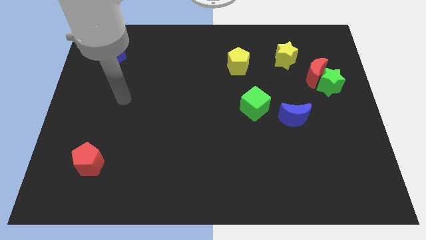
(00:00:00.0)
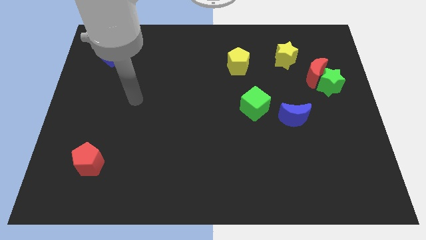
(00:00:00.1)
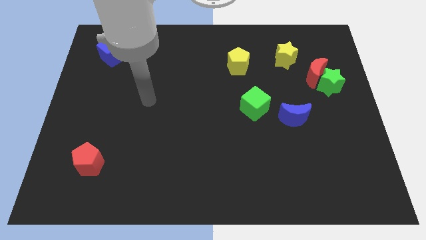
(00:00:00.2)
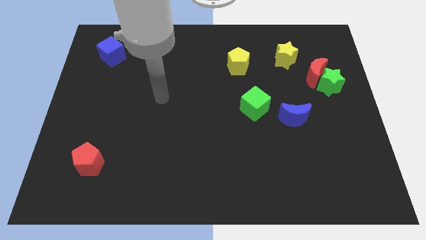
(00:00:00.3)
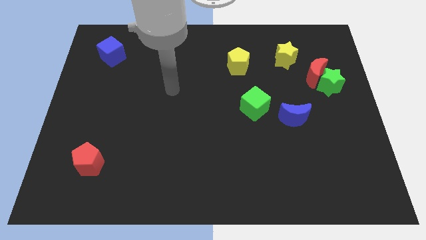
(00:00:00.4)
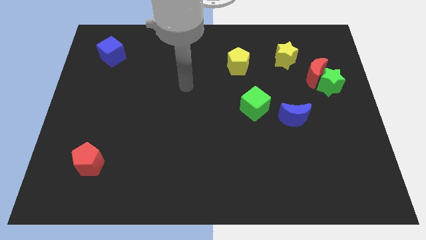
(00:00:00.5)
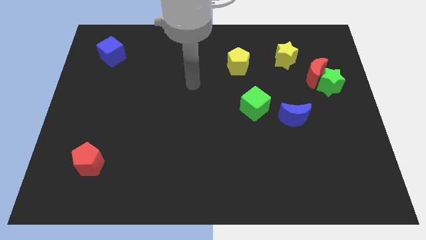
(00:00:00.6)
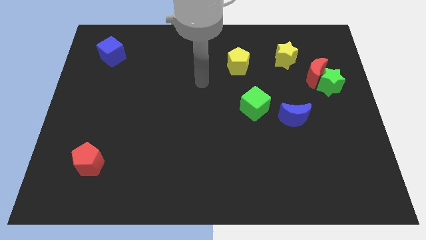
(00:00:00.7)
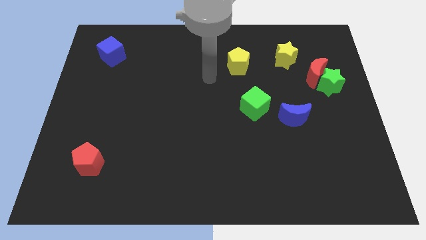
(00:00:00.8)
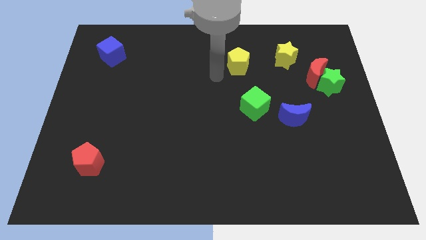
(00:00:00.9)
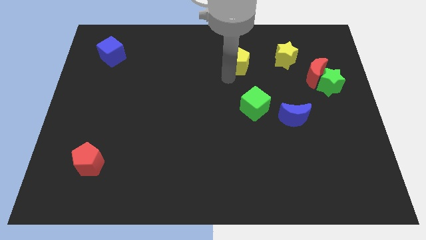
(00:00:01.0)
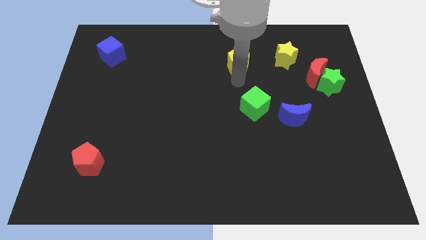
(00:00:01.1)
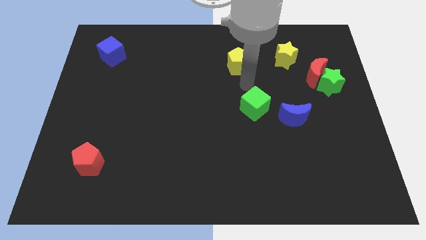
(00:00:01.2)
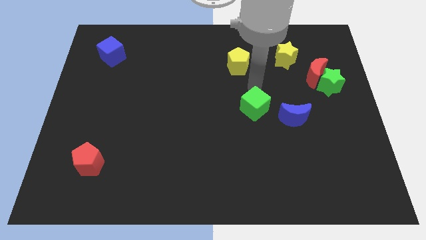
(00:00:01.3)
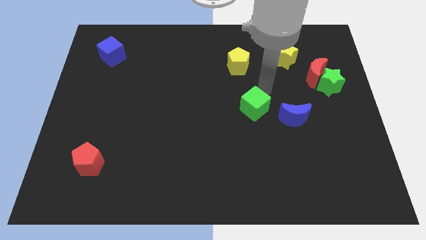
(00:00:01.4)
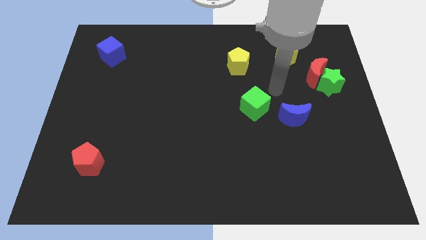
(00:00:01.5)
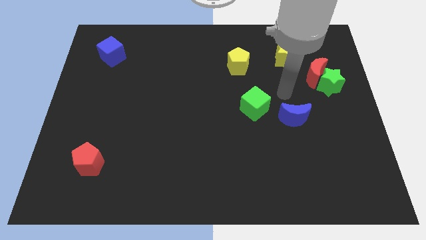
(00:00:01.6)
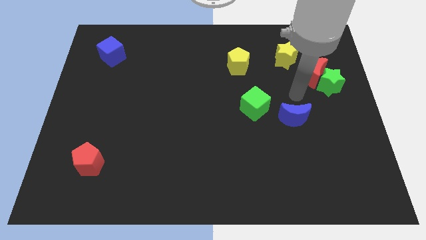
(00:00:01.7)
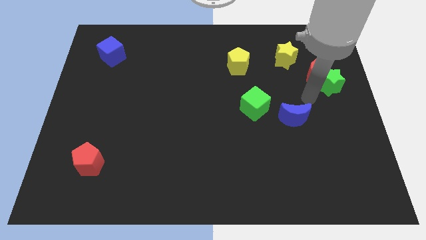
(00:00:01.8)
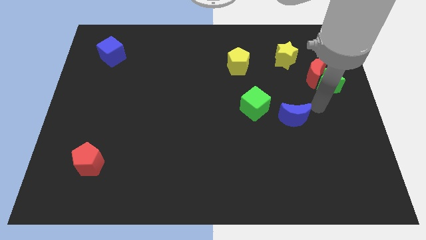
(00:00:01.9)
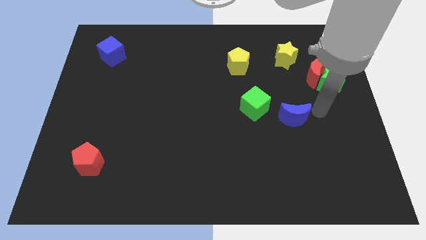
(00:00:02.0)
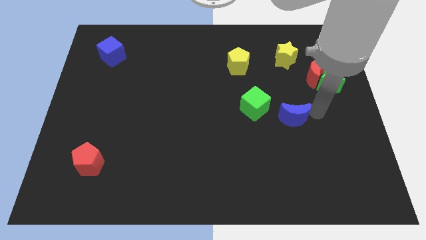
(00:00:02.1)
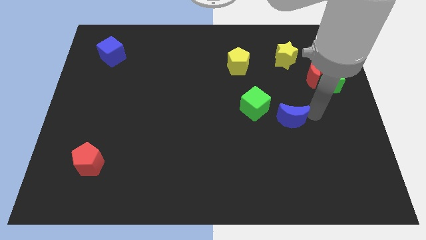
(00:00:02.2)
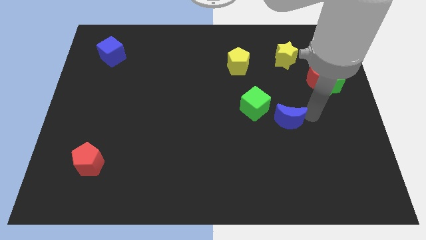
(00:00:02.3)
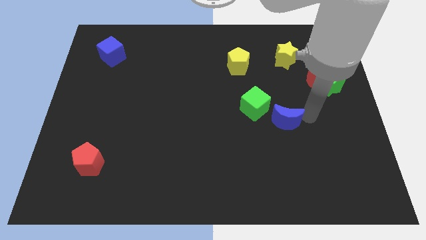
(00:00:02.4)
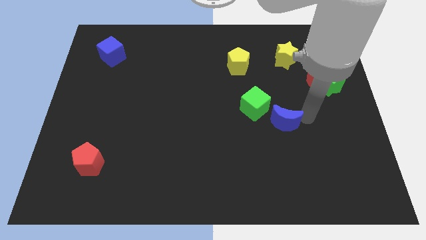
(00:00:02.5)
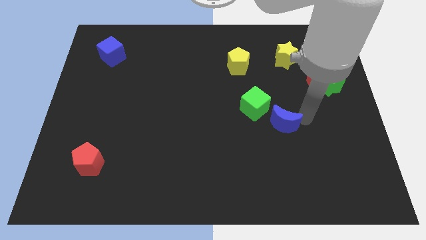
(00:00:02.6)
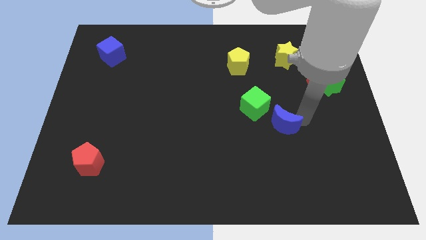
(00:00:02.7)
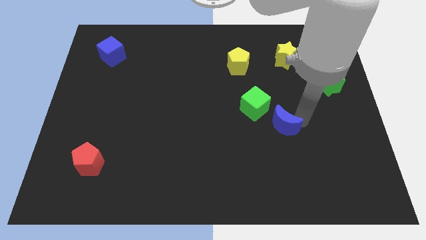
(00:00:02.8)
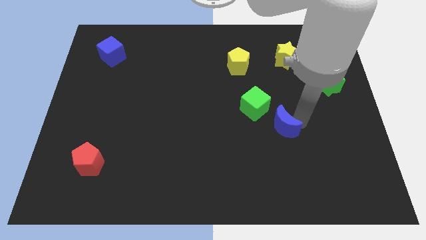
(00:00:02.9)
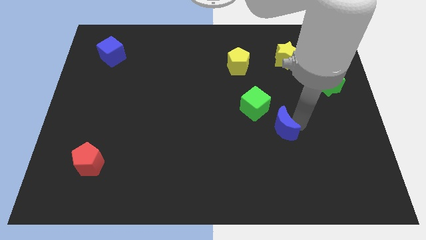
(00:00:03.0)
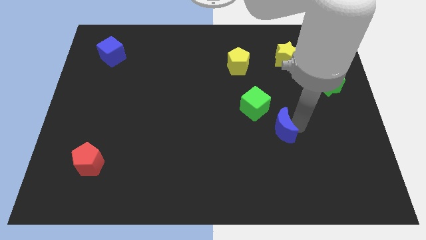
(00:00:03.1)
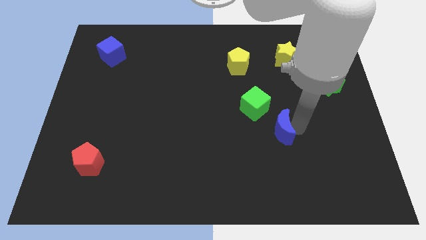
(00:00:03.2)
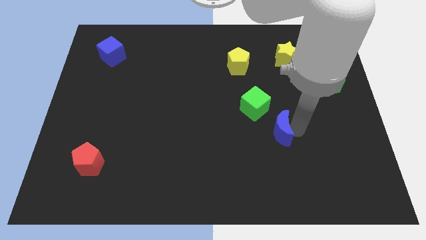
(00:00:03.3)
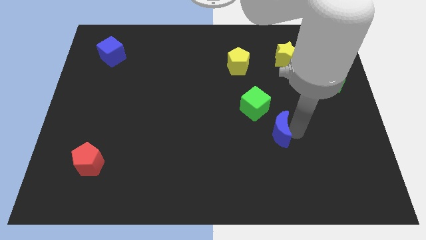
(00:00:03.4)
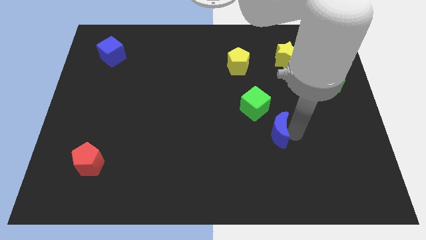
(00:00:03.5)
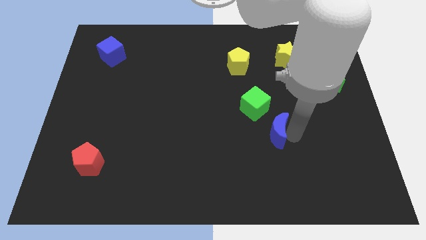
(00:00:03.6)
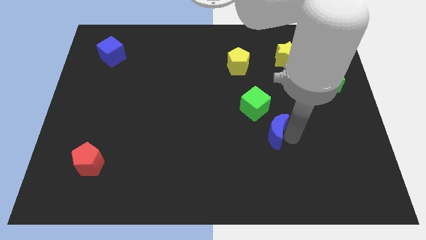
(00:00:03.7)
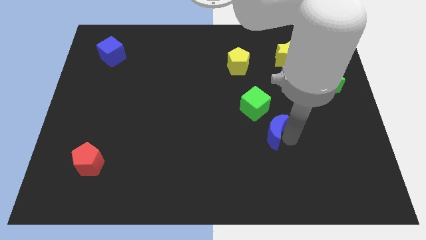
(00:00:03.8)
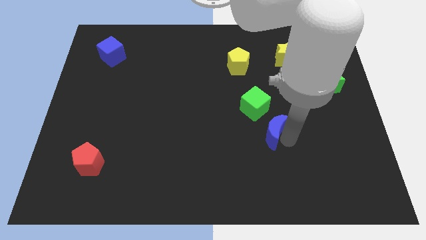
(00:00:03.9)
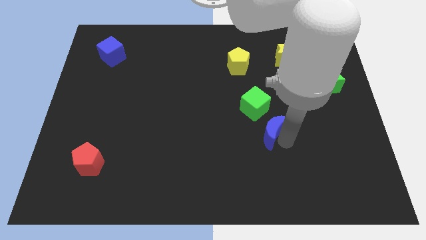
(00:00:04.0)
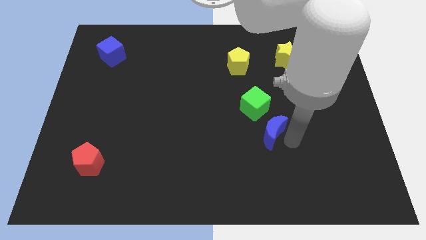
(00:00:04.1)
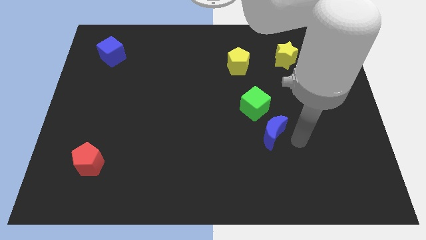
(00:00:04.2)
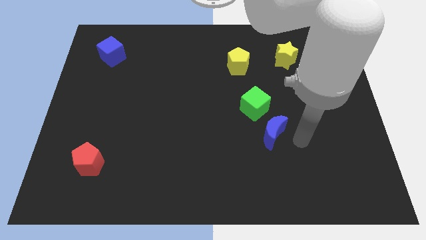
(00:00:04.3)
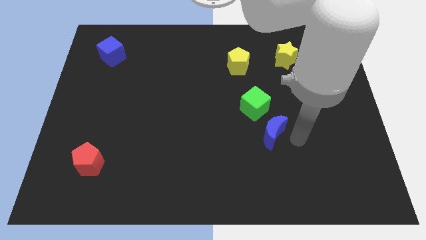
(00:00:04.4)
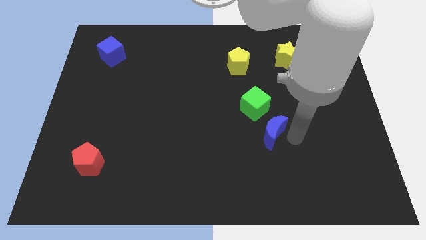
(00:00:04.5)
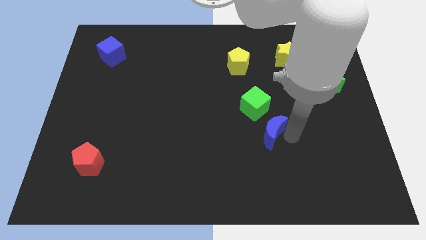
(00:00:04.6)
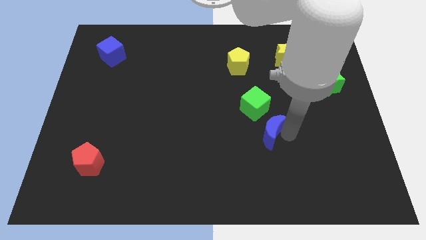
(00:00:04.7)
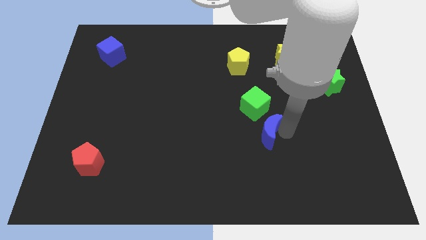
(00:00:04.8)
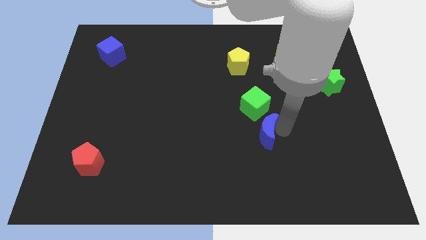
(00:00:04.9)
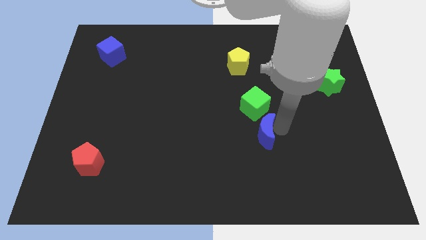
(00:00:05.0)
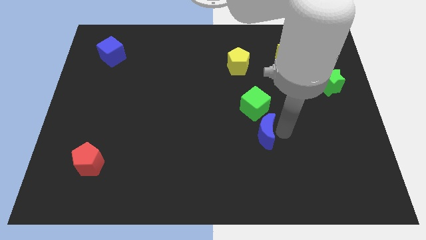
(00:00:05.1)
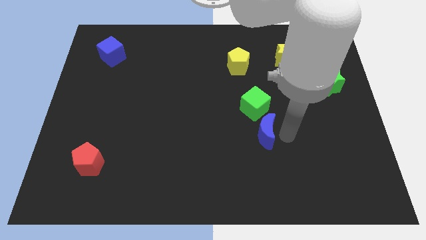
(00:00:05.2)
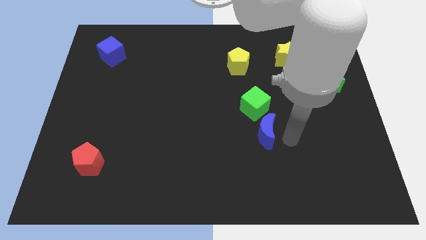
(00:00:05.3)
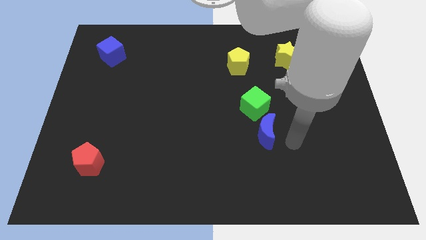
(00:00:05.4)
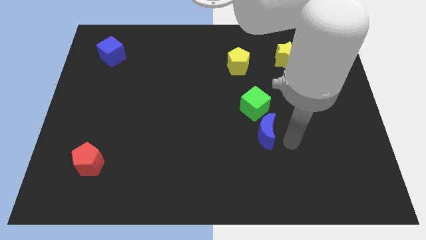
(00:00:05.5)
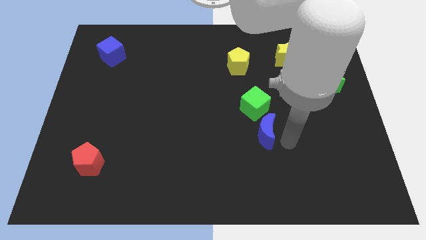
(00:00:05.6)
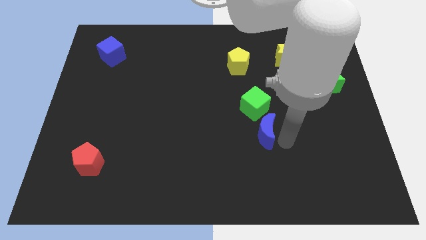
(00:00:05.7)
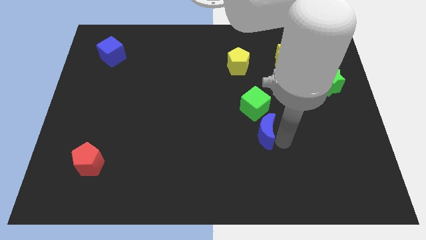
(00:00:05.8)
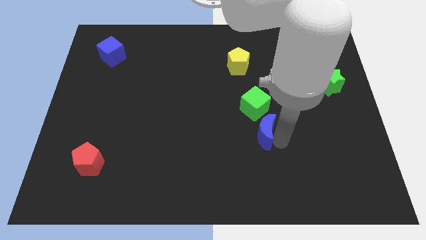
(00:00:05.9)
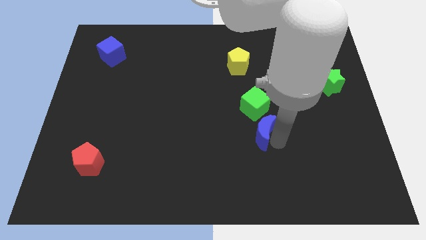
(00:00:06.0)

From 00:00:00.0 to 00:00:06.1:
push the blue moon left somewhat

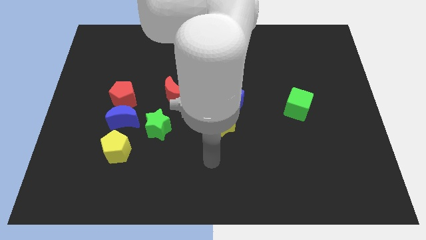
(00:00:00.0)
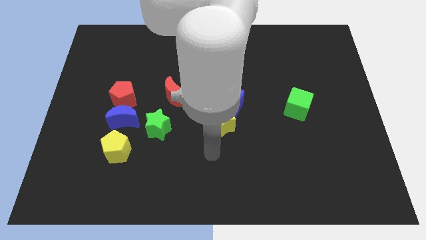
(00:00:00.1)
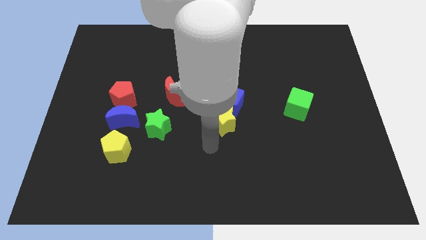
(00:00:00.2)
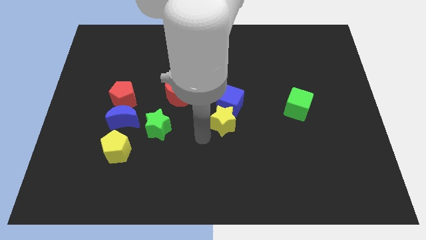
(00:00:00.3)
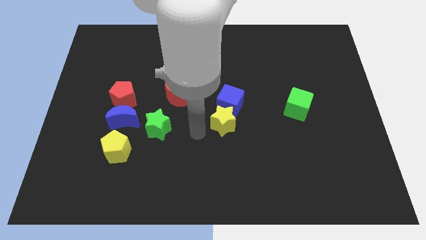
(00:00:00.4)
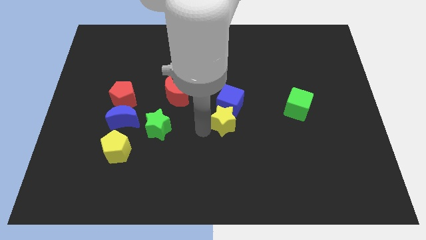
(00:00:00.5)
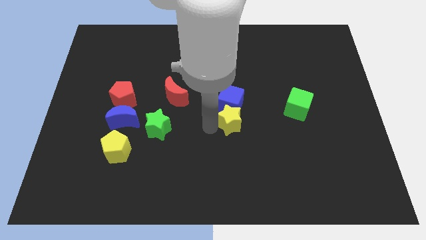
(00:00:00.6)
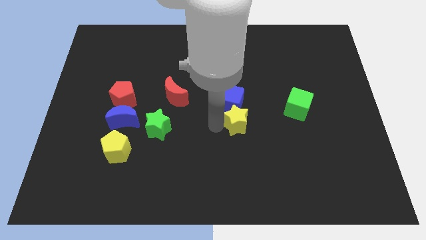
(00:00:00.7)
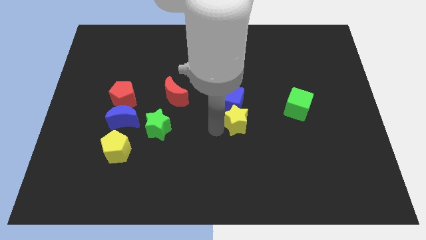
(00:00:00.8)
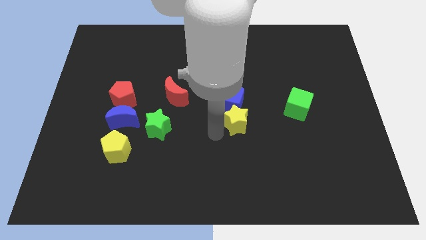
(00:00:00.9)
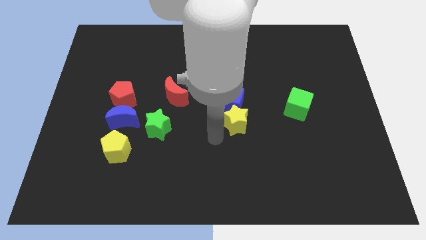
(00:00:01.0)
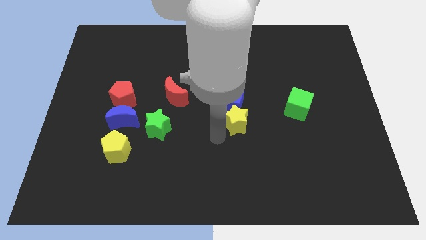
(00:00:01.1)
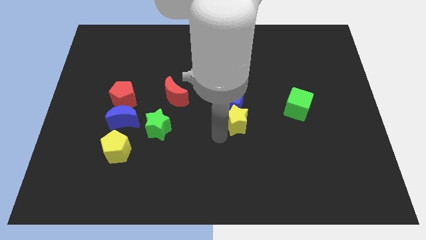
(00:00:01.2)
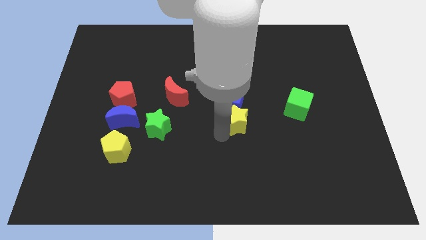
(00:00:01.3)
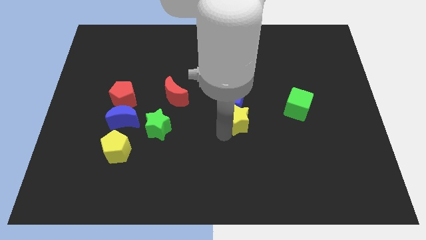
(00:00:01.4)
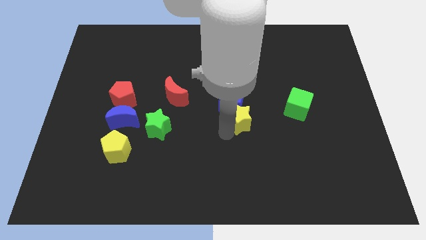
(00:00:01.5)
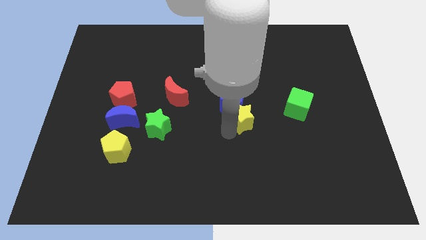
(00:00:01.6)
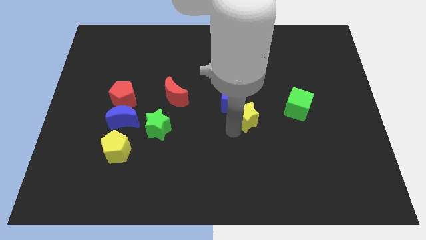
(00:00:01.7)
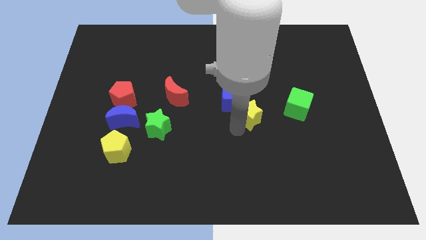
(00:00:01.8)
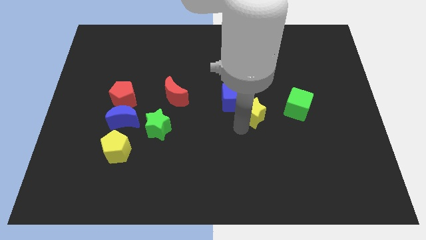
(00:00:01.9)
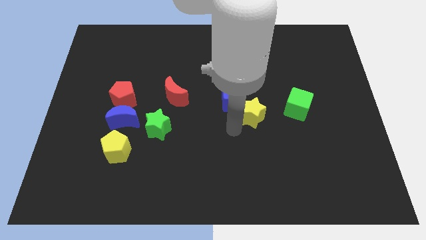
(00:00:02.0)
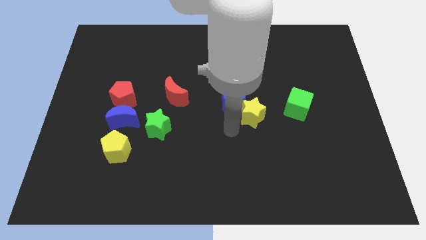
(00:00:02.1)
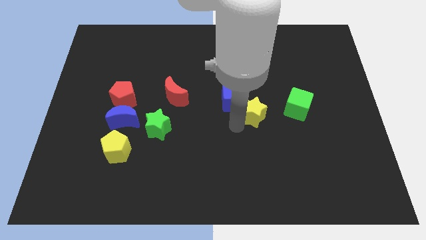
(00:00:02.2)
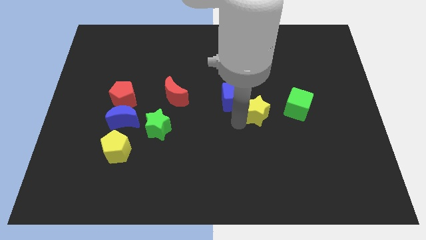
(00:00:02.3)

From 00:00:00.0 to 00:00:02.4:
slide the yellow star a bit up and to the right
